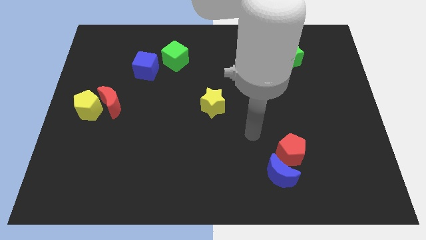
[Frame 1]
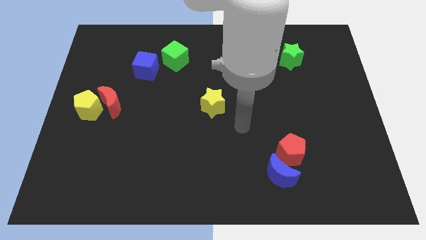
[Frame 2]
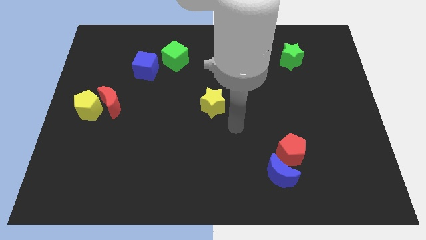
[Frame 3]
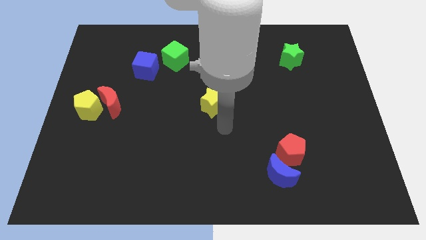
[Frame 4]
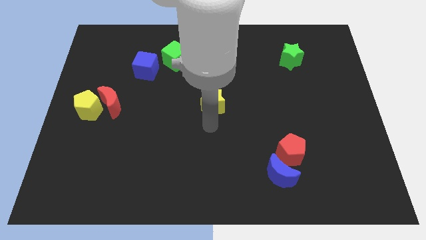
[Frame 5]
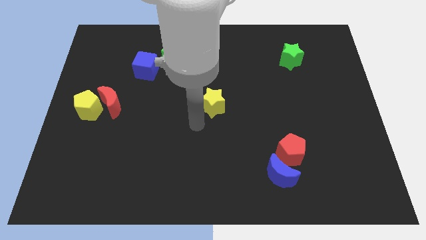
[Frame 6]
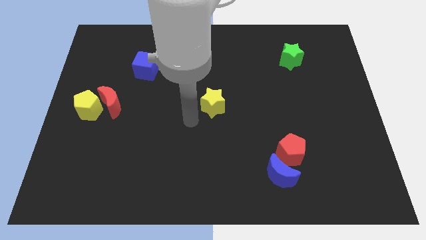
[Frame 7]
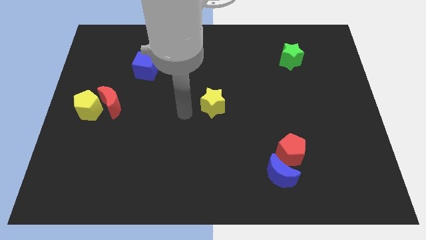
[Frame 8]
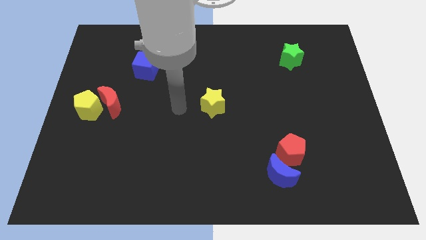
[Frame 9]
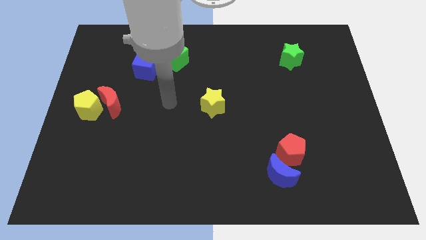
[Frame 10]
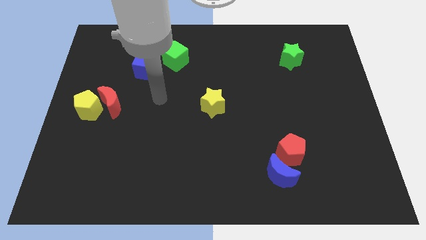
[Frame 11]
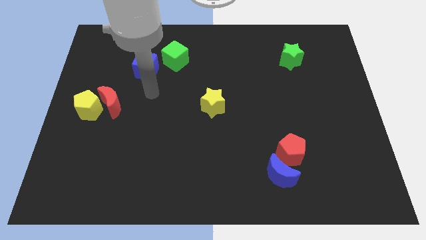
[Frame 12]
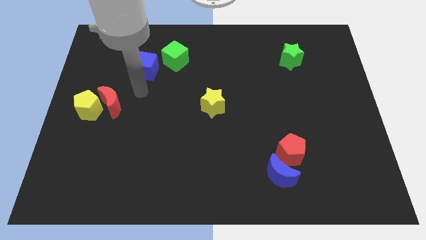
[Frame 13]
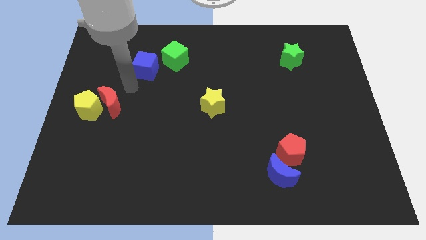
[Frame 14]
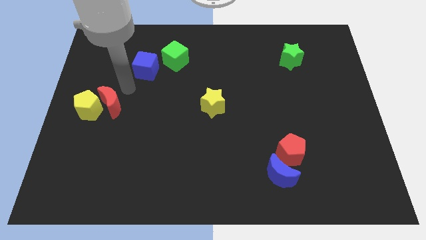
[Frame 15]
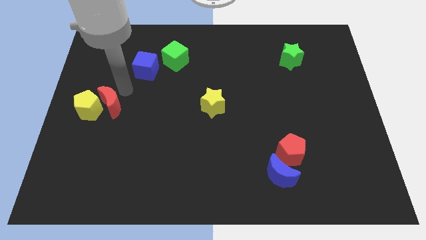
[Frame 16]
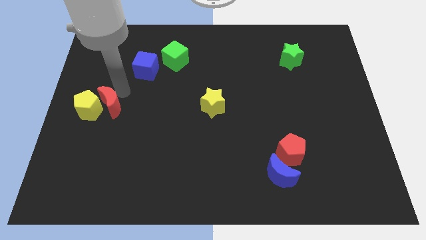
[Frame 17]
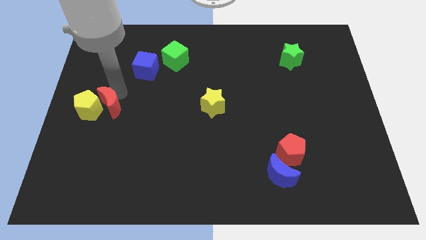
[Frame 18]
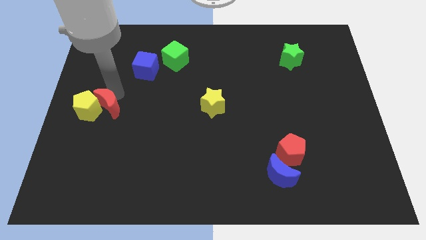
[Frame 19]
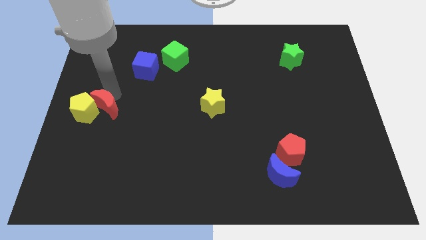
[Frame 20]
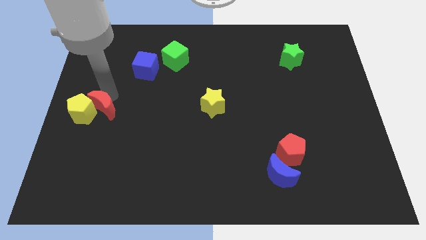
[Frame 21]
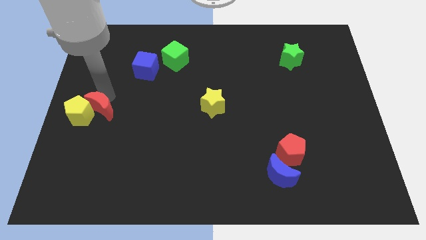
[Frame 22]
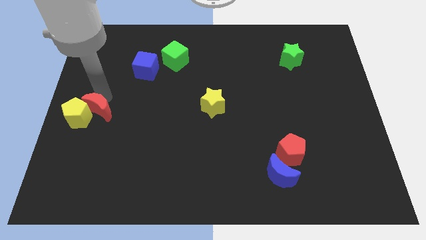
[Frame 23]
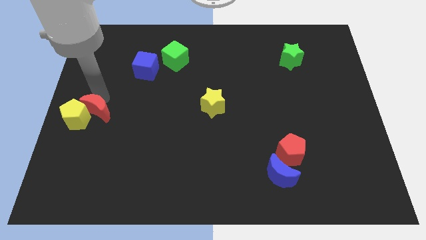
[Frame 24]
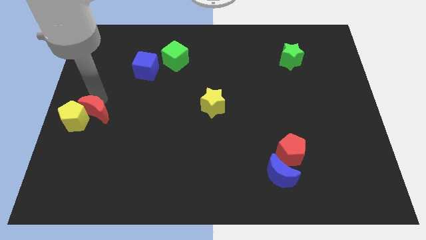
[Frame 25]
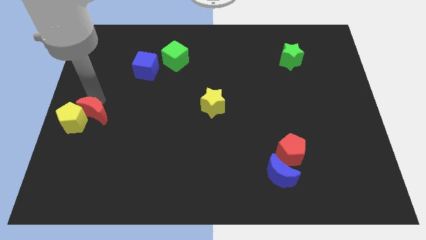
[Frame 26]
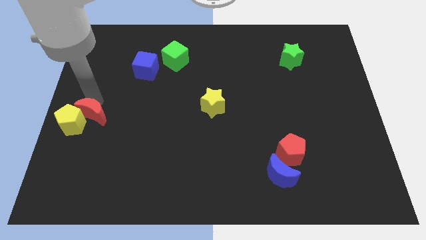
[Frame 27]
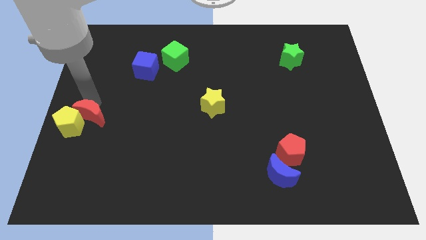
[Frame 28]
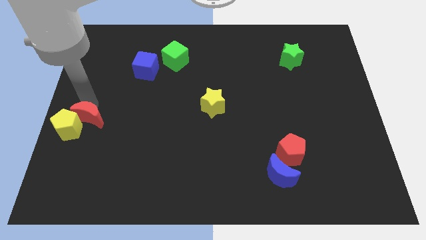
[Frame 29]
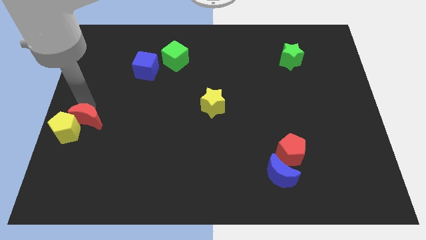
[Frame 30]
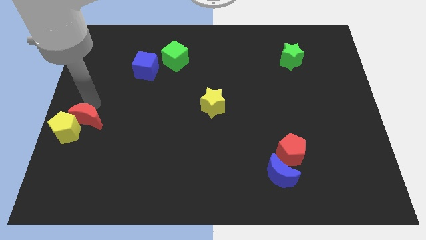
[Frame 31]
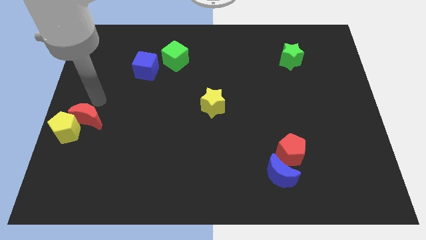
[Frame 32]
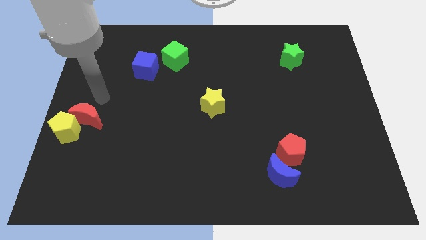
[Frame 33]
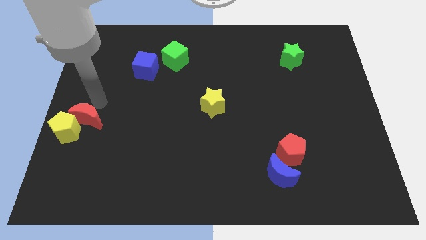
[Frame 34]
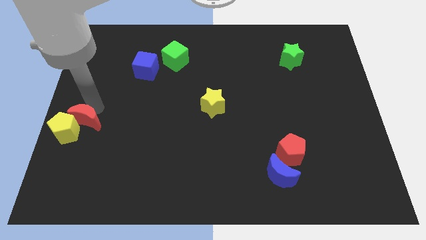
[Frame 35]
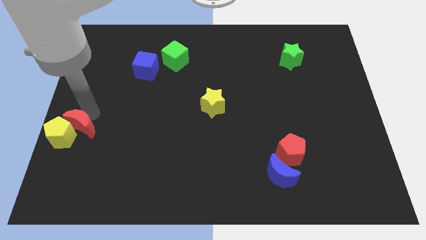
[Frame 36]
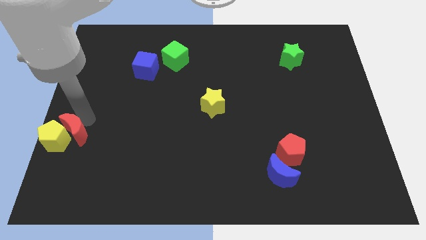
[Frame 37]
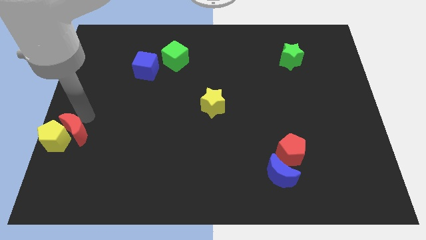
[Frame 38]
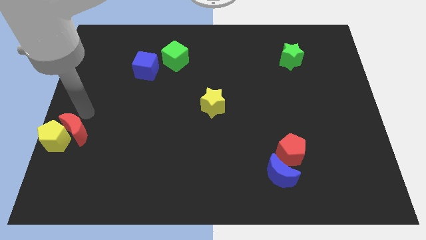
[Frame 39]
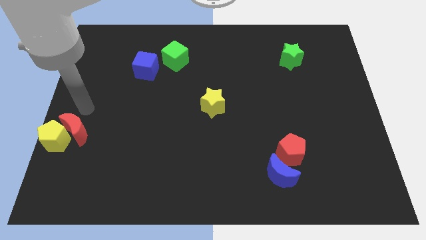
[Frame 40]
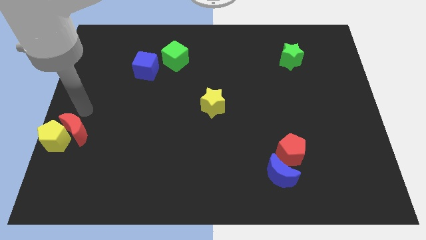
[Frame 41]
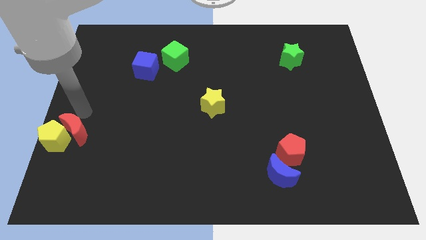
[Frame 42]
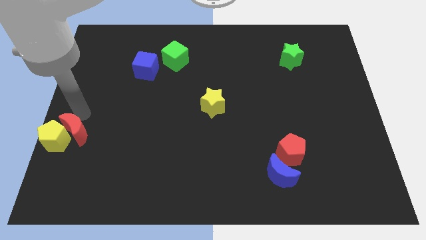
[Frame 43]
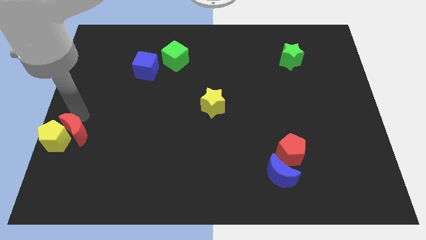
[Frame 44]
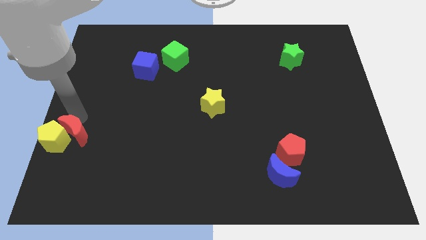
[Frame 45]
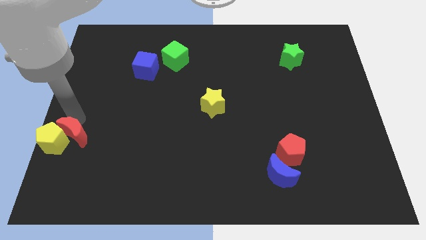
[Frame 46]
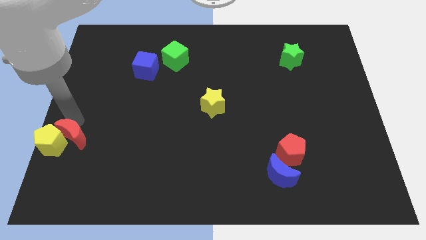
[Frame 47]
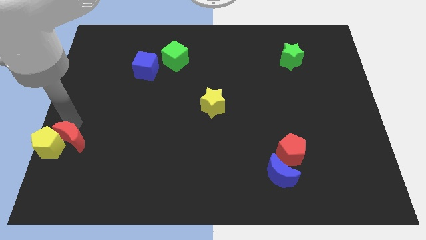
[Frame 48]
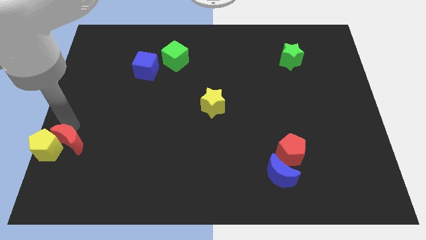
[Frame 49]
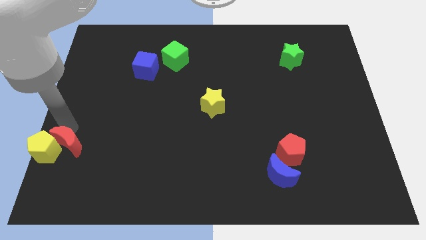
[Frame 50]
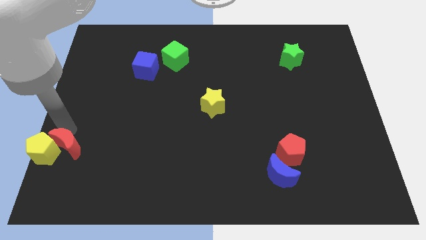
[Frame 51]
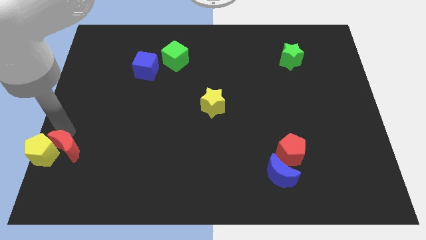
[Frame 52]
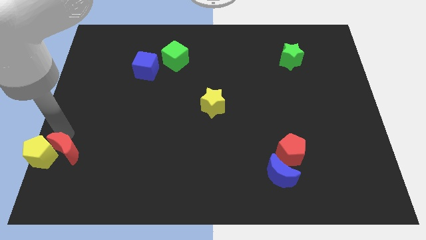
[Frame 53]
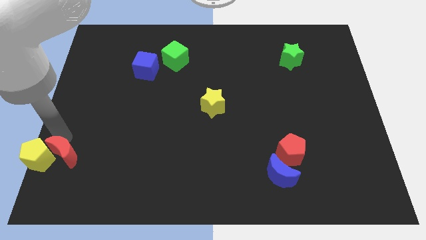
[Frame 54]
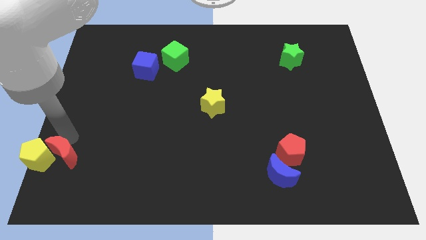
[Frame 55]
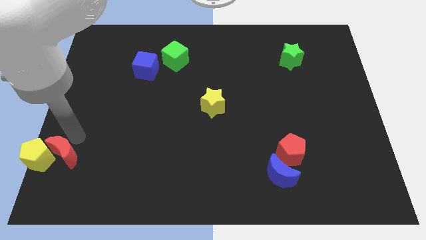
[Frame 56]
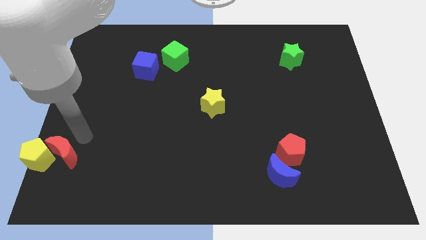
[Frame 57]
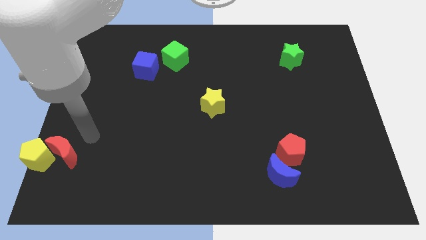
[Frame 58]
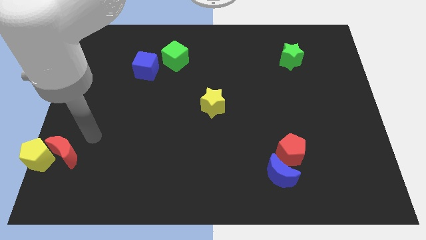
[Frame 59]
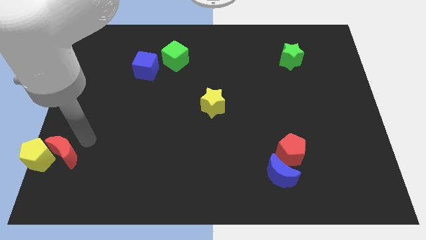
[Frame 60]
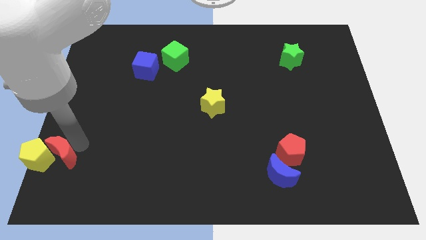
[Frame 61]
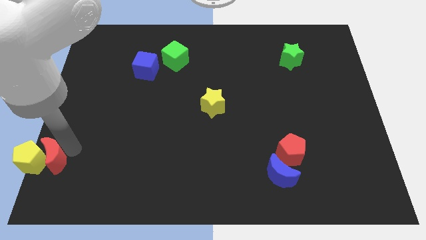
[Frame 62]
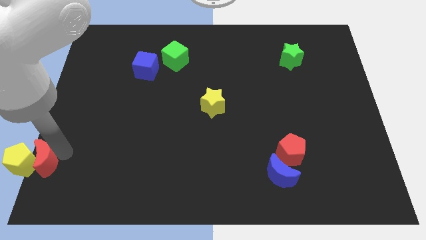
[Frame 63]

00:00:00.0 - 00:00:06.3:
move the red moon to the lower left corner

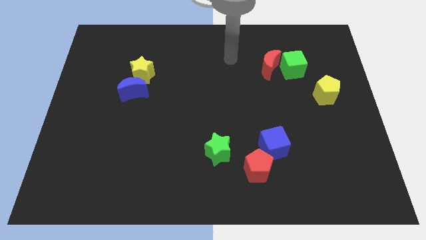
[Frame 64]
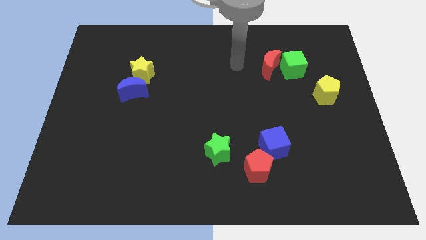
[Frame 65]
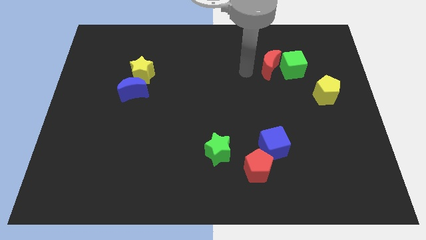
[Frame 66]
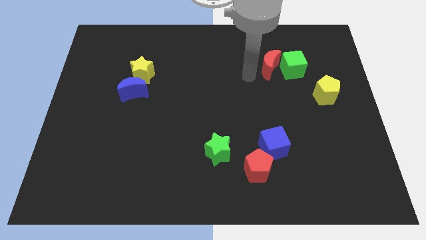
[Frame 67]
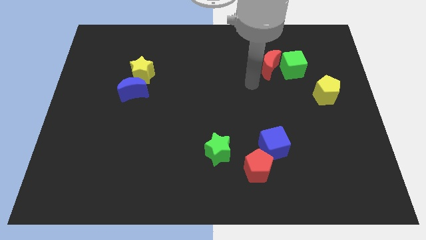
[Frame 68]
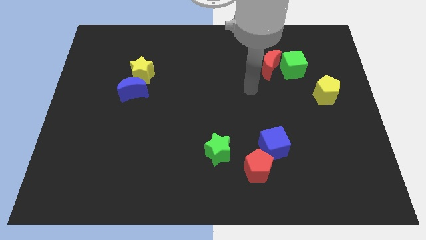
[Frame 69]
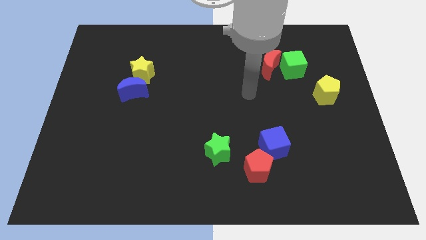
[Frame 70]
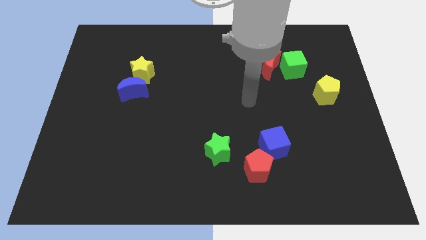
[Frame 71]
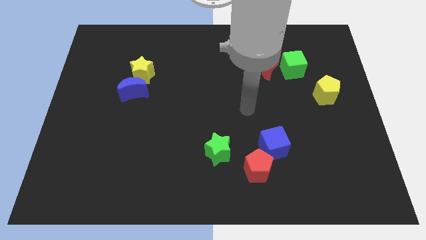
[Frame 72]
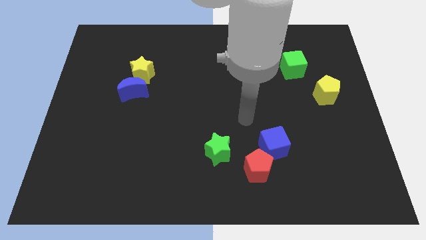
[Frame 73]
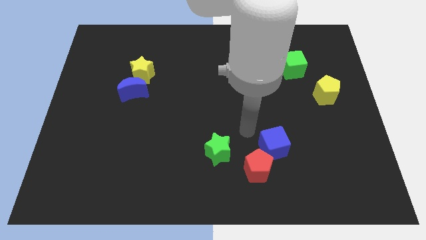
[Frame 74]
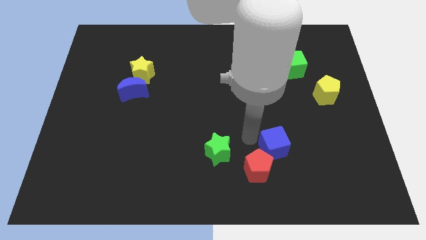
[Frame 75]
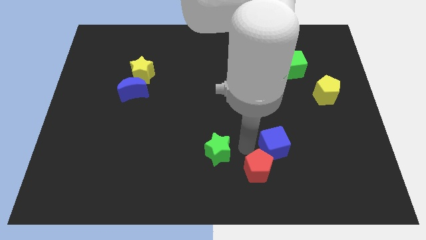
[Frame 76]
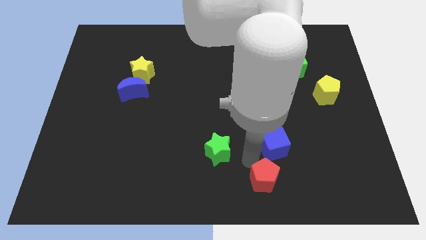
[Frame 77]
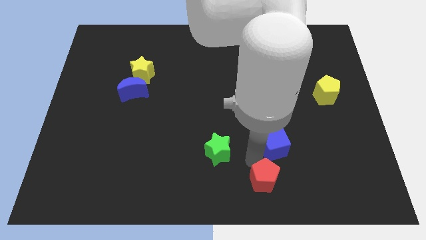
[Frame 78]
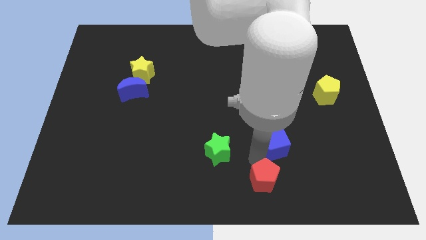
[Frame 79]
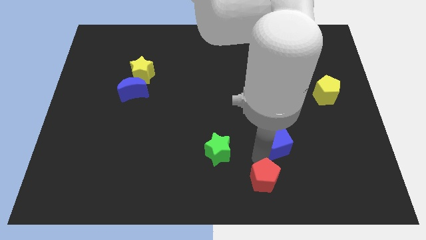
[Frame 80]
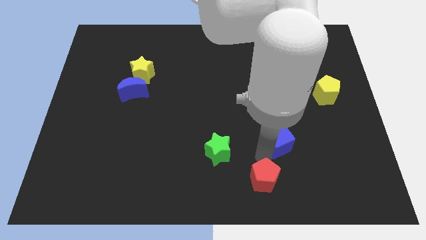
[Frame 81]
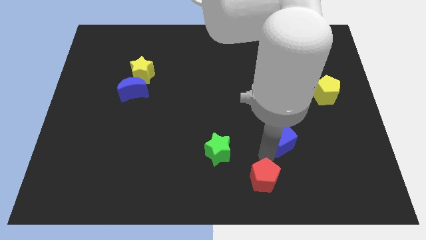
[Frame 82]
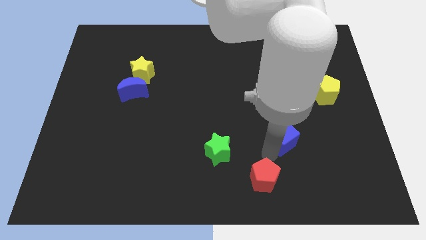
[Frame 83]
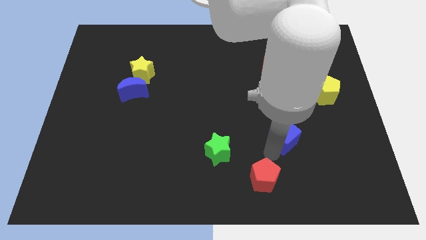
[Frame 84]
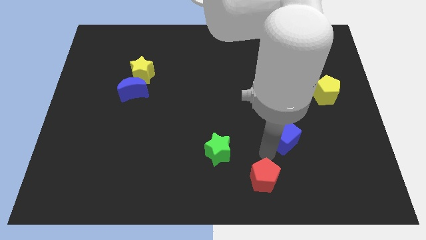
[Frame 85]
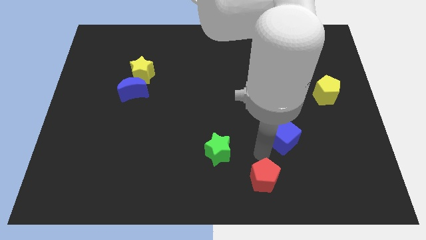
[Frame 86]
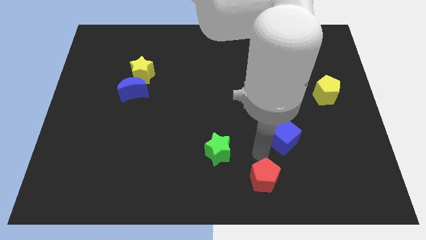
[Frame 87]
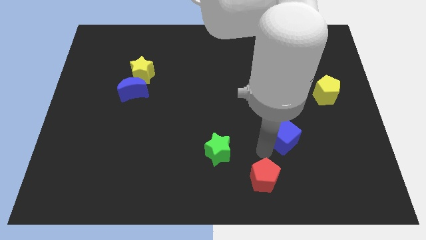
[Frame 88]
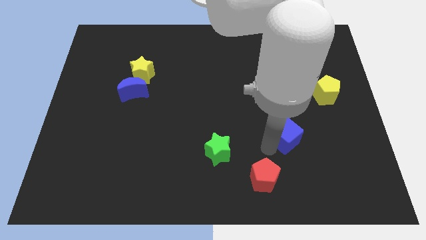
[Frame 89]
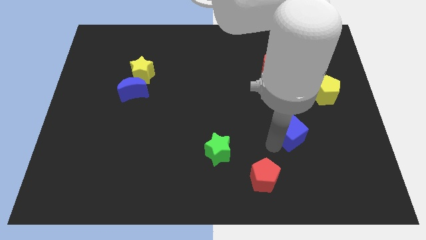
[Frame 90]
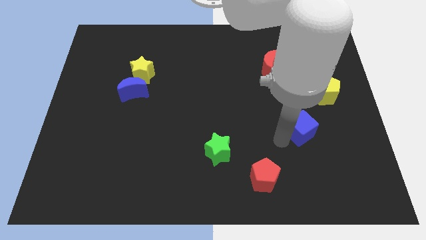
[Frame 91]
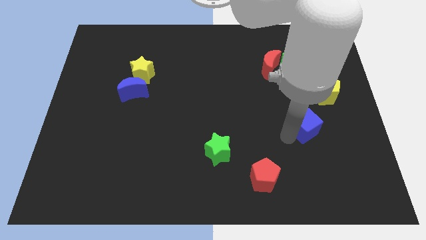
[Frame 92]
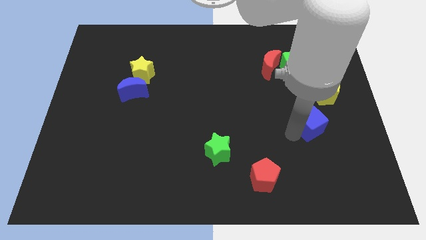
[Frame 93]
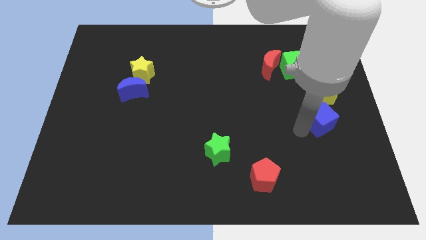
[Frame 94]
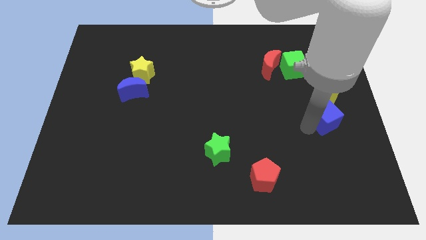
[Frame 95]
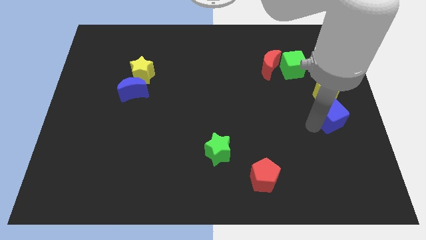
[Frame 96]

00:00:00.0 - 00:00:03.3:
put the blue cube to the center right
